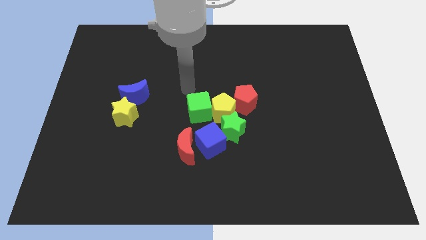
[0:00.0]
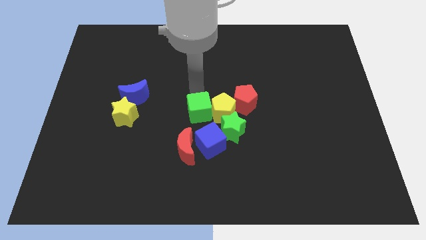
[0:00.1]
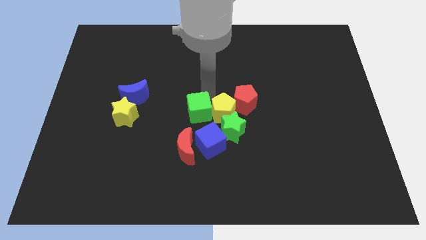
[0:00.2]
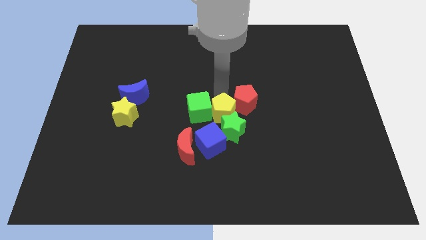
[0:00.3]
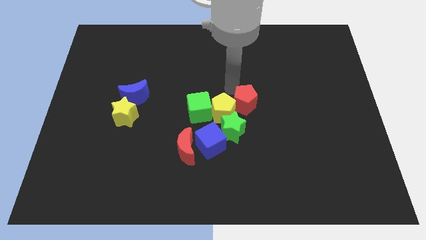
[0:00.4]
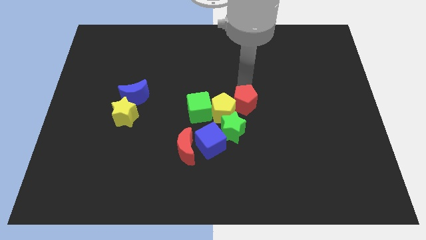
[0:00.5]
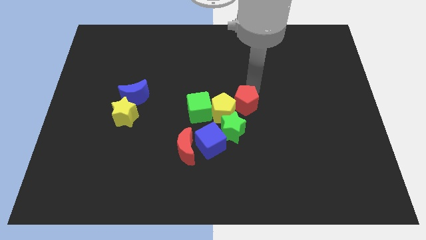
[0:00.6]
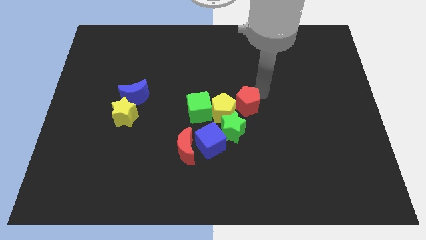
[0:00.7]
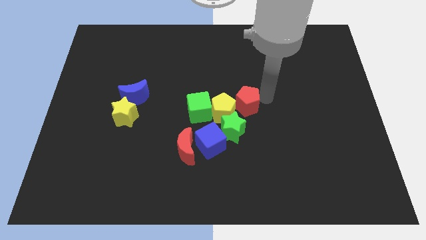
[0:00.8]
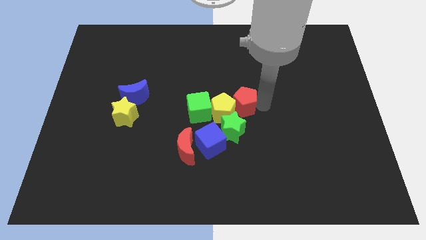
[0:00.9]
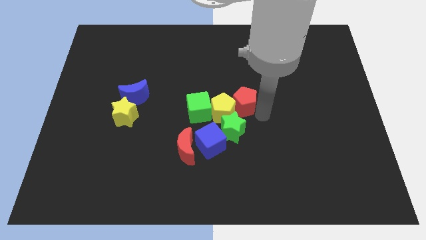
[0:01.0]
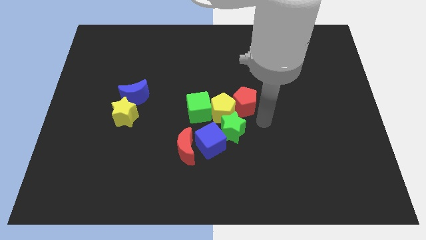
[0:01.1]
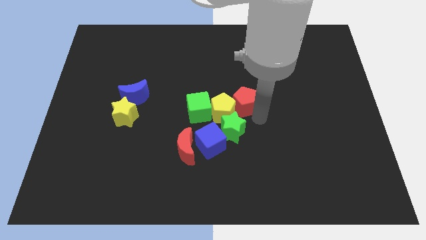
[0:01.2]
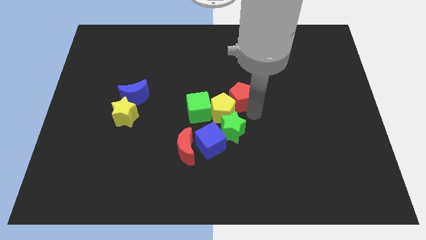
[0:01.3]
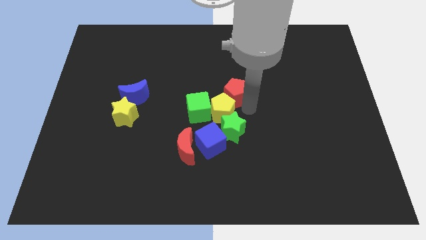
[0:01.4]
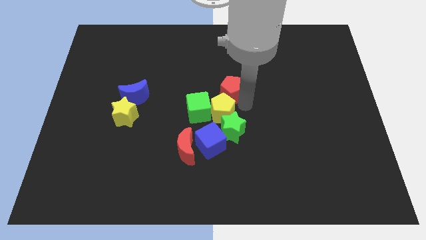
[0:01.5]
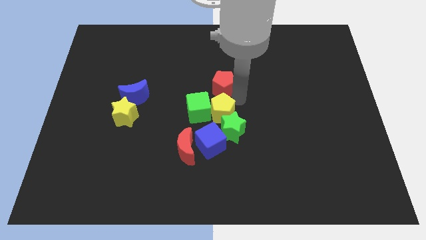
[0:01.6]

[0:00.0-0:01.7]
move the red pentagon somewhat upwards and then left

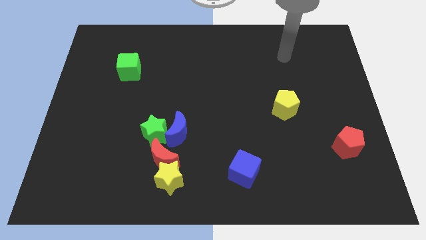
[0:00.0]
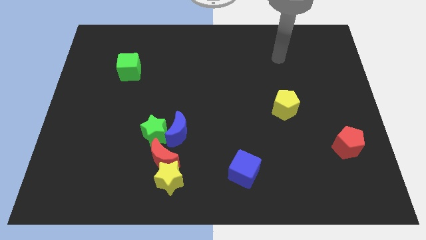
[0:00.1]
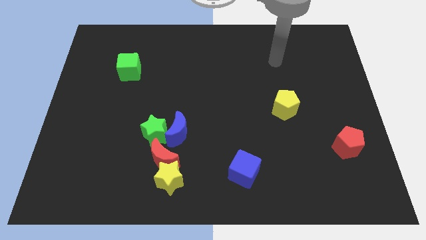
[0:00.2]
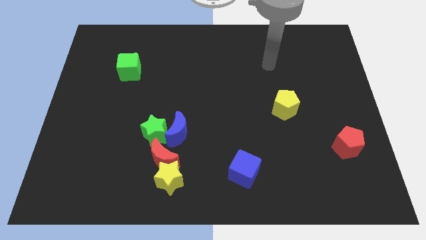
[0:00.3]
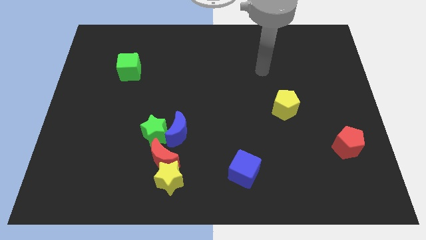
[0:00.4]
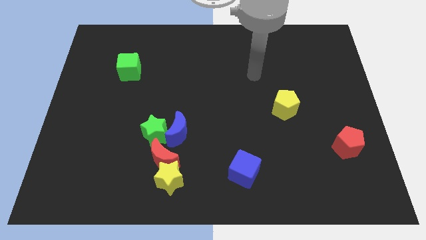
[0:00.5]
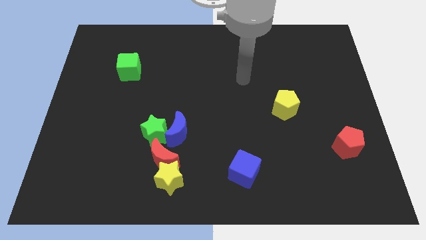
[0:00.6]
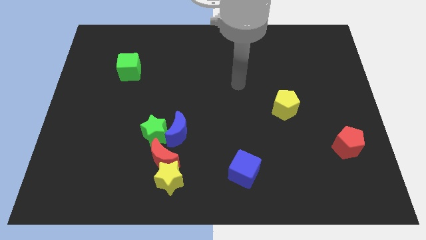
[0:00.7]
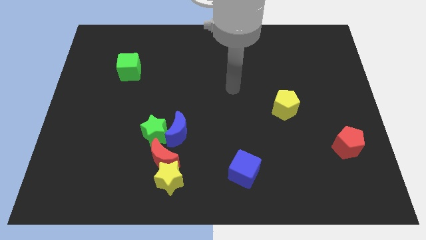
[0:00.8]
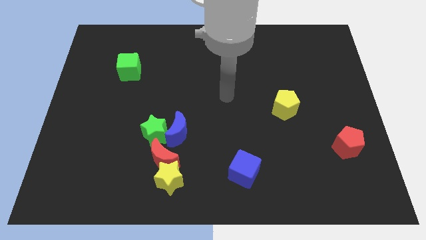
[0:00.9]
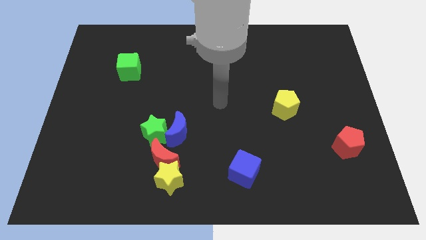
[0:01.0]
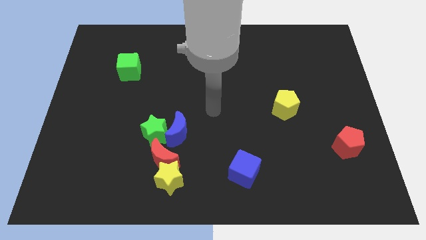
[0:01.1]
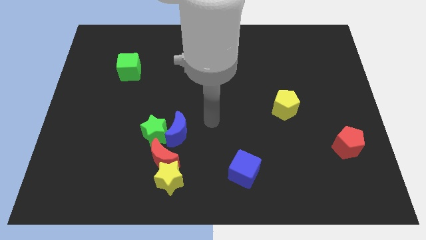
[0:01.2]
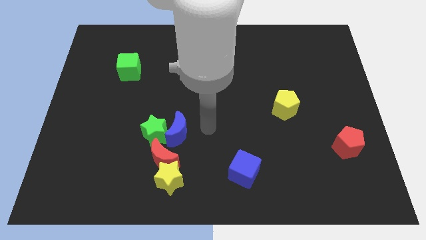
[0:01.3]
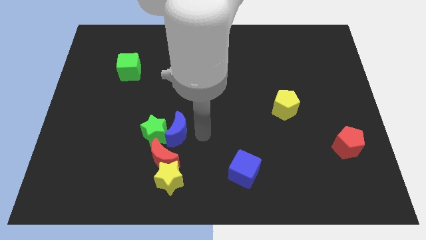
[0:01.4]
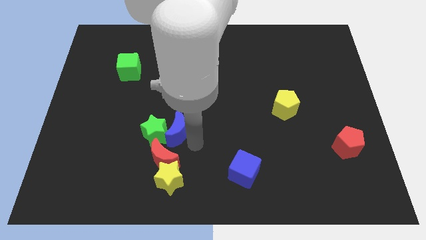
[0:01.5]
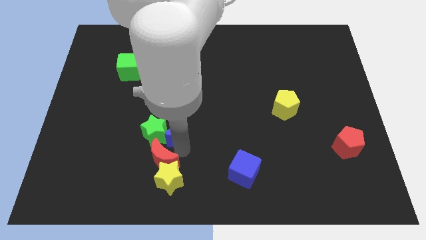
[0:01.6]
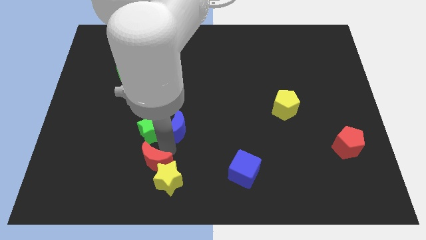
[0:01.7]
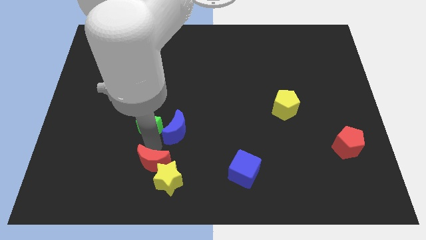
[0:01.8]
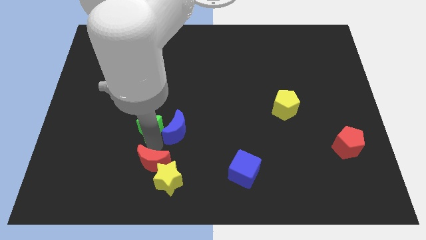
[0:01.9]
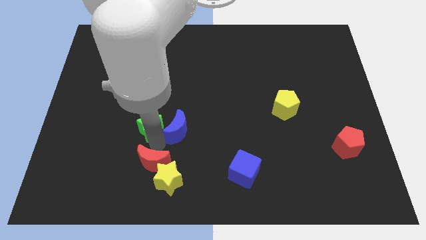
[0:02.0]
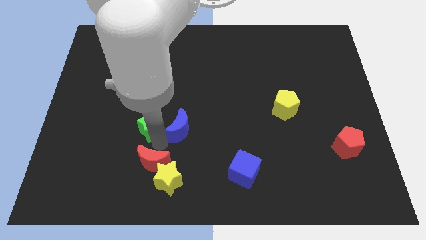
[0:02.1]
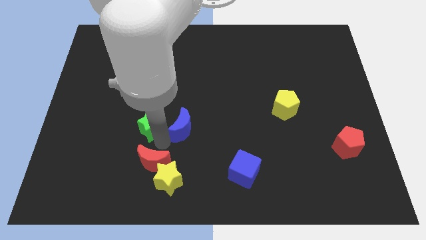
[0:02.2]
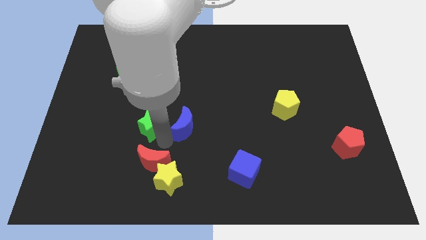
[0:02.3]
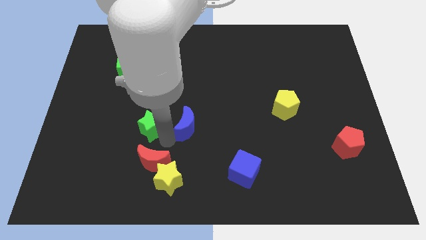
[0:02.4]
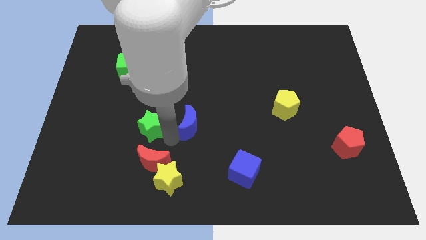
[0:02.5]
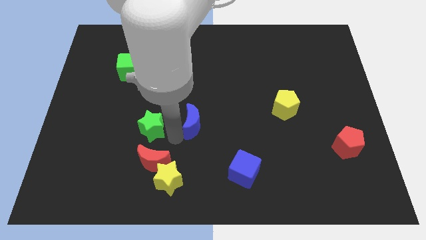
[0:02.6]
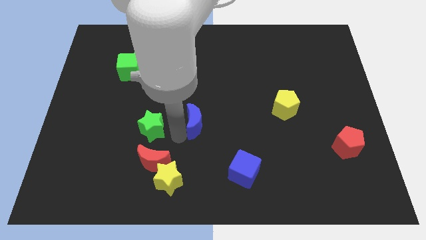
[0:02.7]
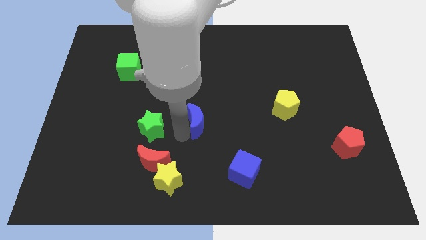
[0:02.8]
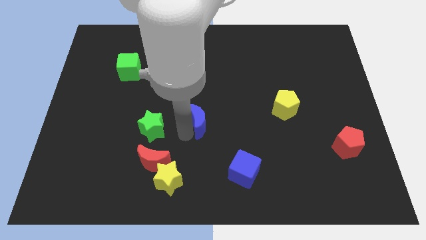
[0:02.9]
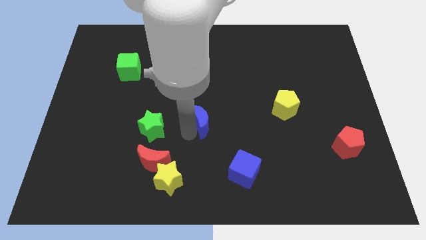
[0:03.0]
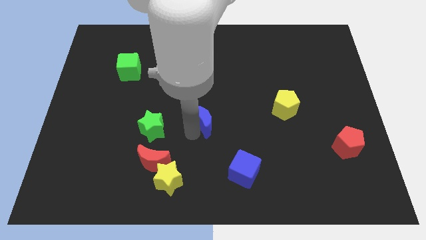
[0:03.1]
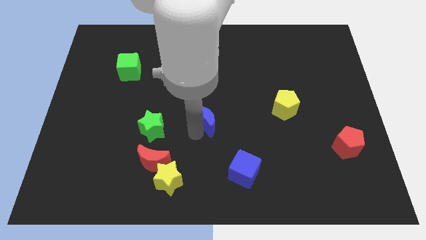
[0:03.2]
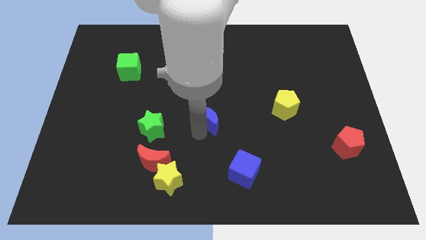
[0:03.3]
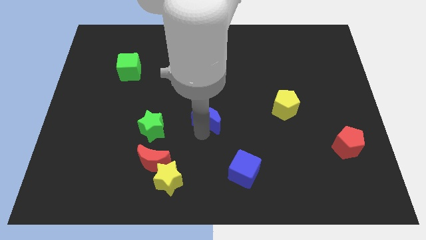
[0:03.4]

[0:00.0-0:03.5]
slightly move the blue moon diagonally up and to the right

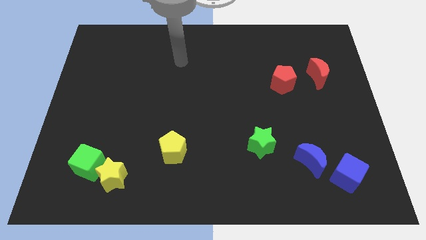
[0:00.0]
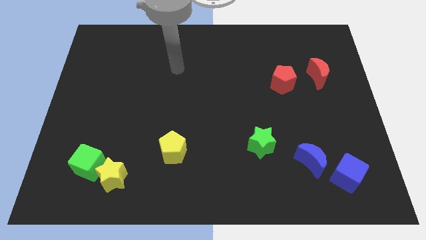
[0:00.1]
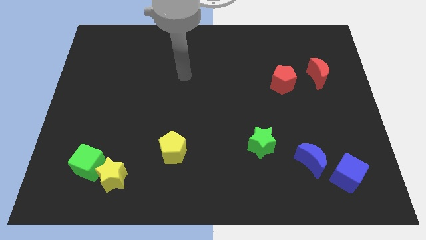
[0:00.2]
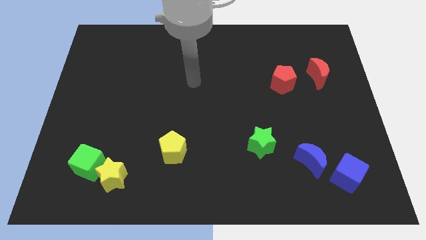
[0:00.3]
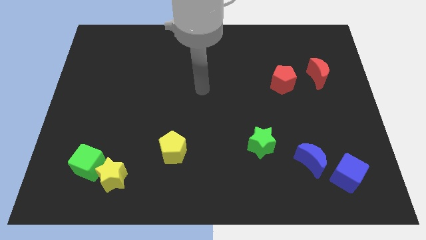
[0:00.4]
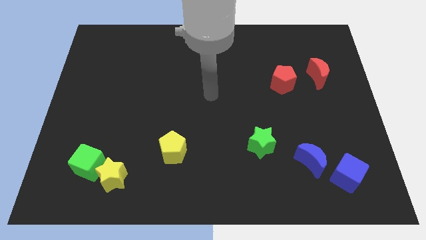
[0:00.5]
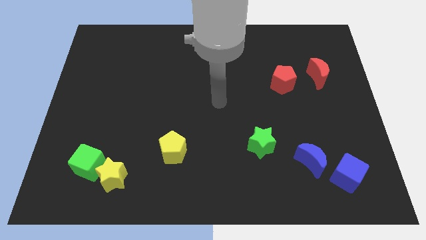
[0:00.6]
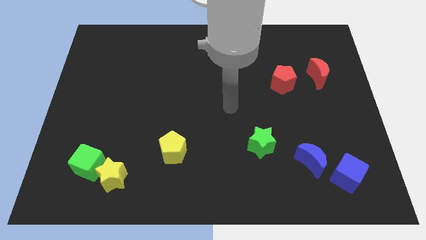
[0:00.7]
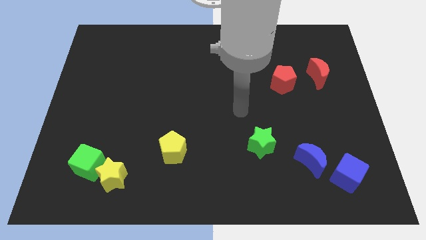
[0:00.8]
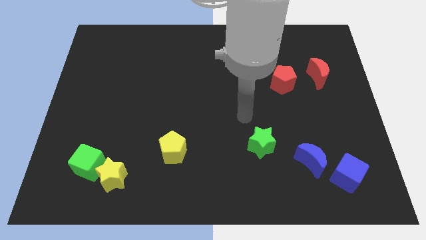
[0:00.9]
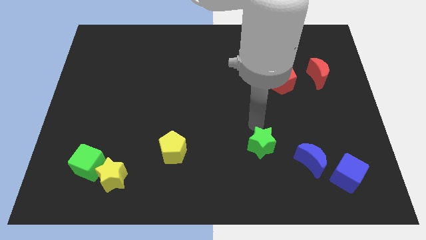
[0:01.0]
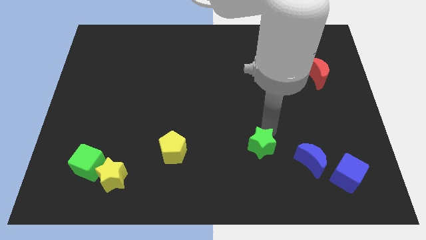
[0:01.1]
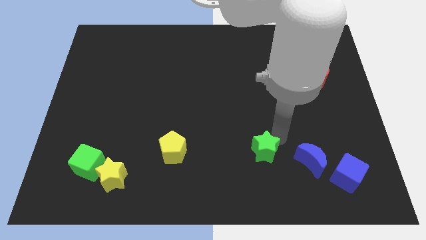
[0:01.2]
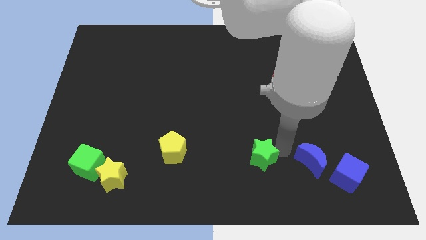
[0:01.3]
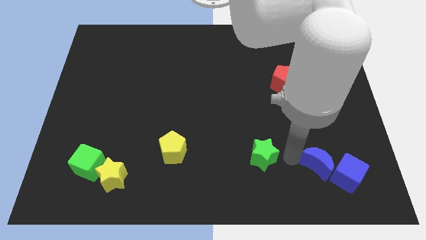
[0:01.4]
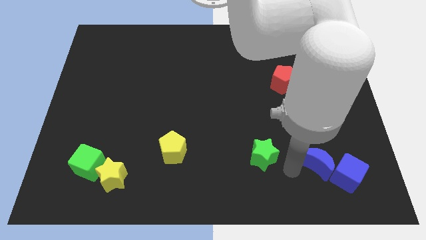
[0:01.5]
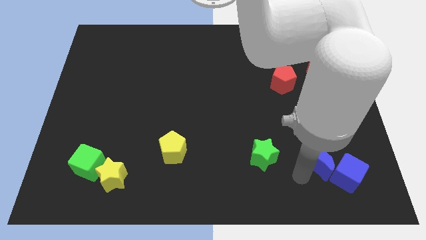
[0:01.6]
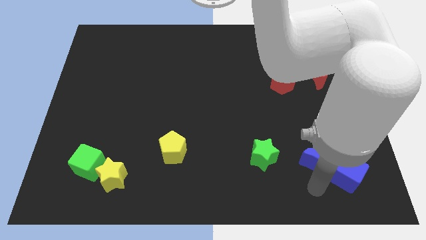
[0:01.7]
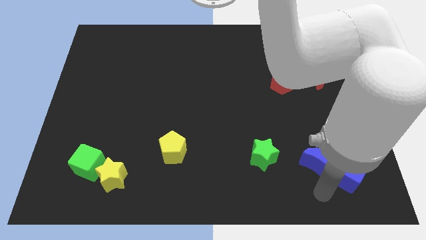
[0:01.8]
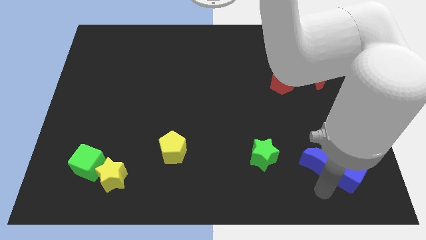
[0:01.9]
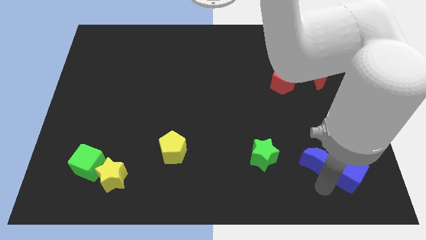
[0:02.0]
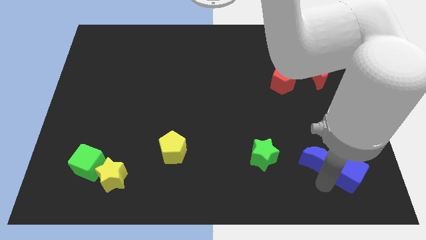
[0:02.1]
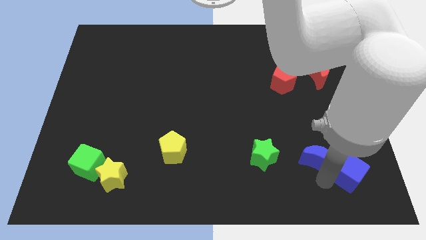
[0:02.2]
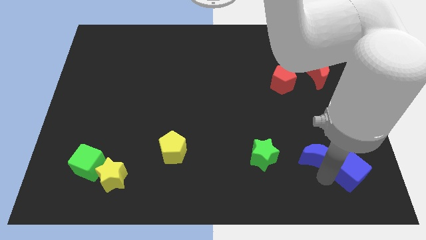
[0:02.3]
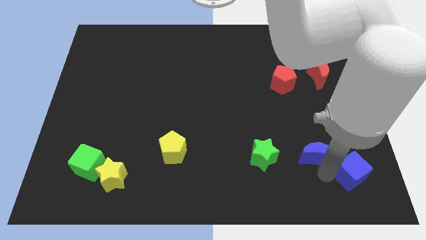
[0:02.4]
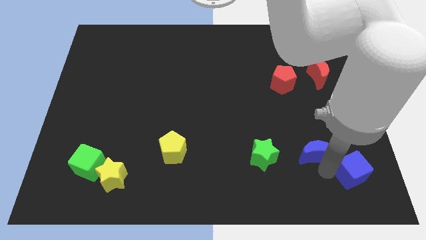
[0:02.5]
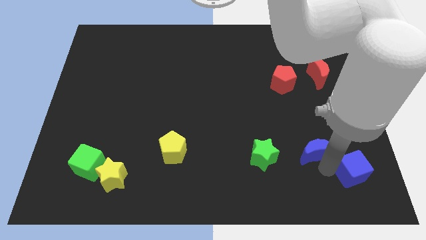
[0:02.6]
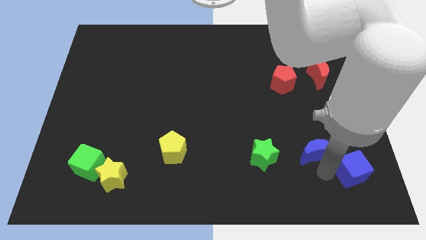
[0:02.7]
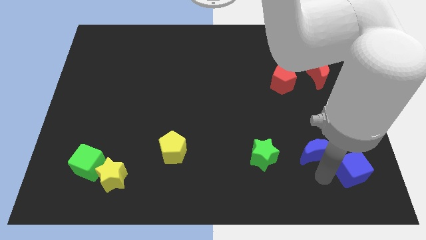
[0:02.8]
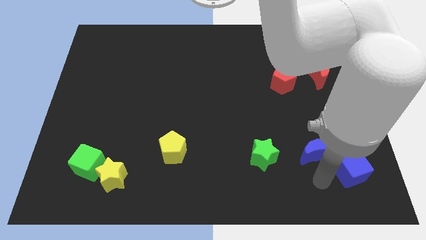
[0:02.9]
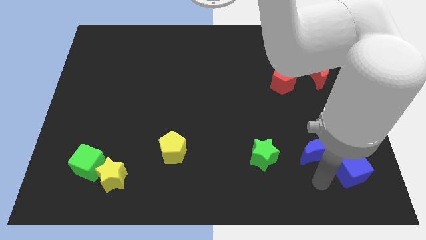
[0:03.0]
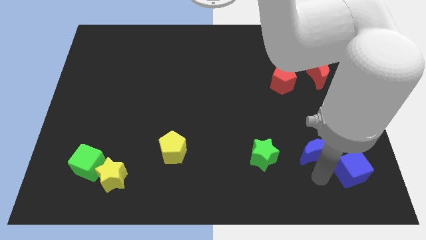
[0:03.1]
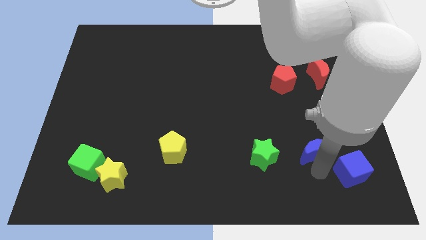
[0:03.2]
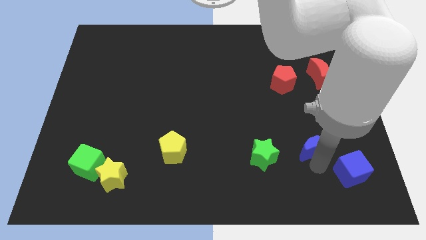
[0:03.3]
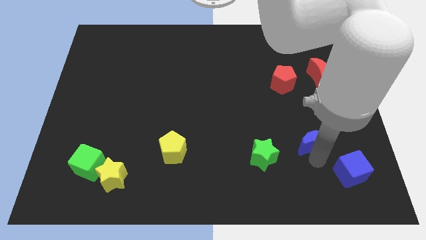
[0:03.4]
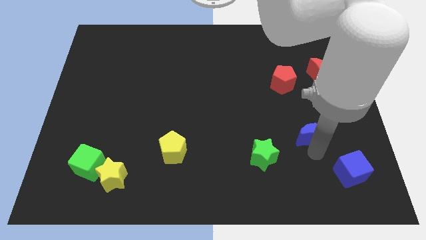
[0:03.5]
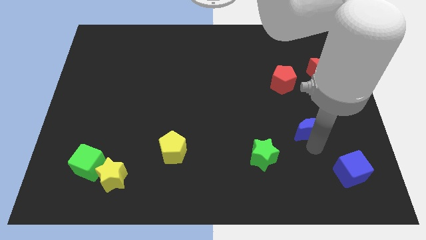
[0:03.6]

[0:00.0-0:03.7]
slightly slide the blue moon up
